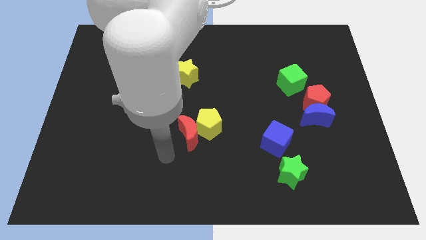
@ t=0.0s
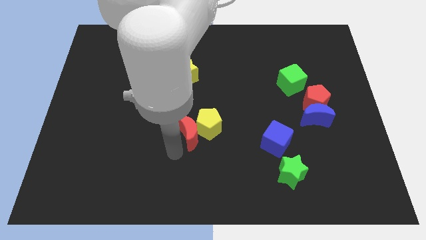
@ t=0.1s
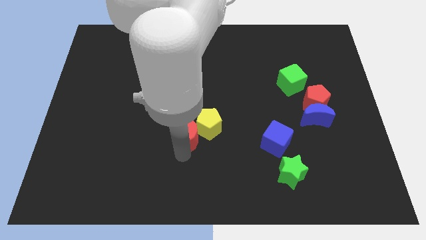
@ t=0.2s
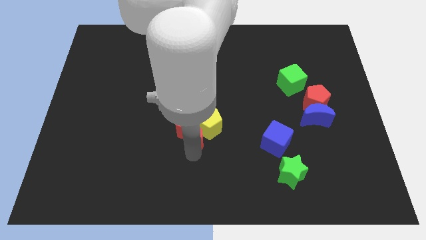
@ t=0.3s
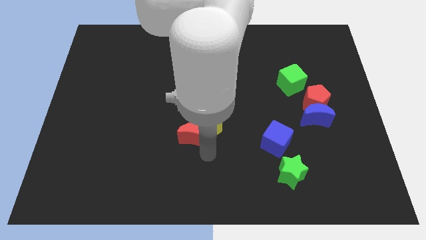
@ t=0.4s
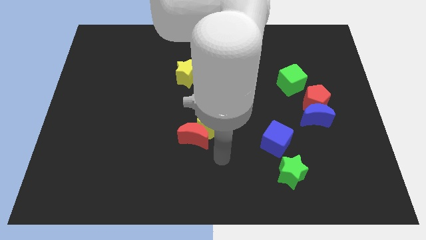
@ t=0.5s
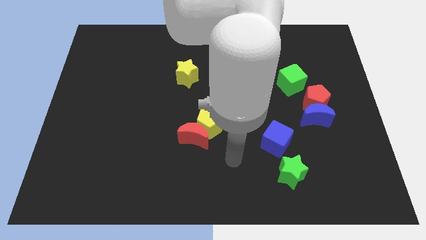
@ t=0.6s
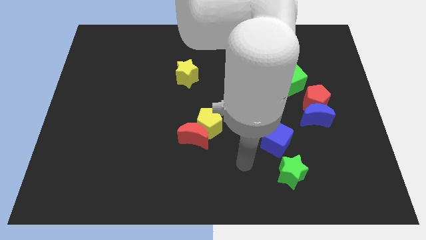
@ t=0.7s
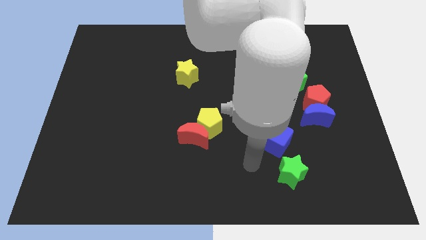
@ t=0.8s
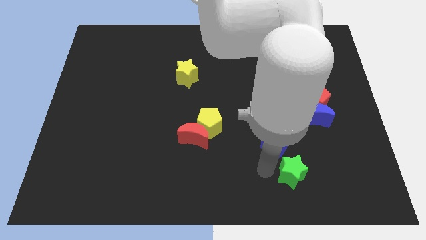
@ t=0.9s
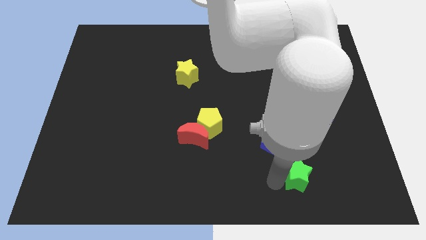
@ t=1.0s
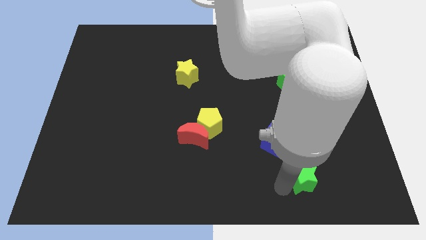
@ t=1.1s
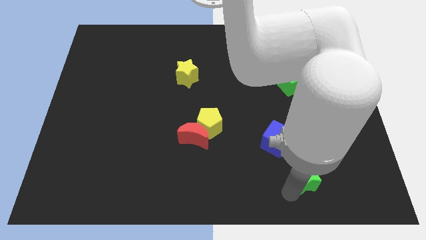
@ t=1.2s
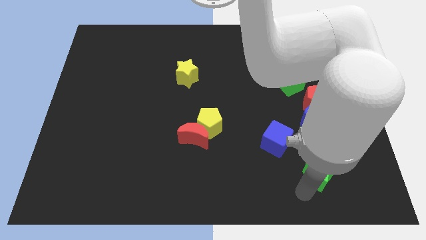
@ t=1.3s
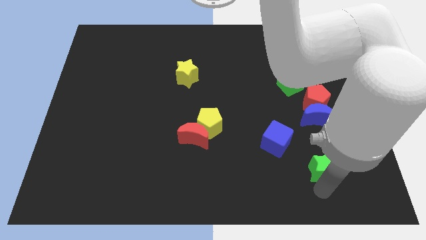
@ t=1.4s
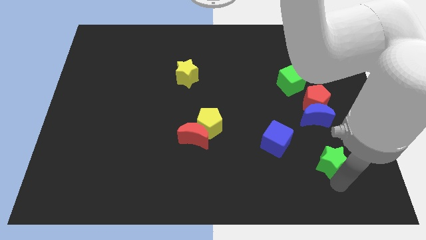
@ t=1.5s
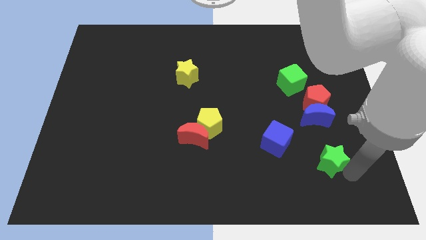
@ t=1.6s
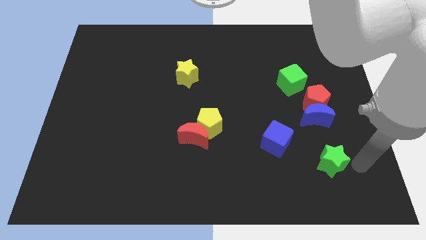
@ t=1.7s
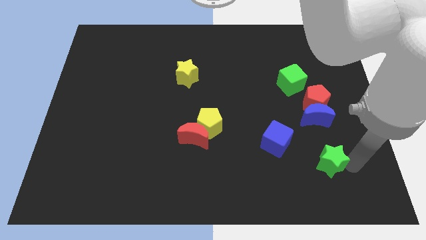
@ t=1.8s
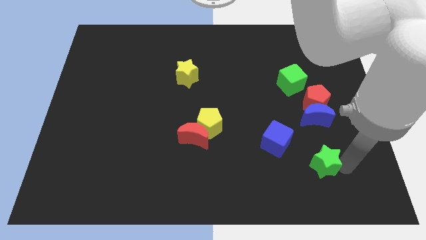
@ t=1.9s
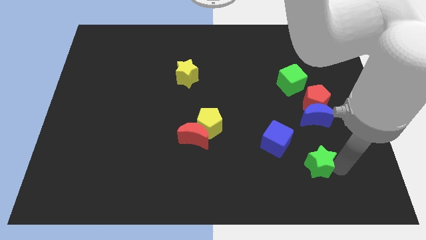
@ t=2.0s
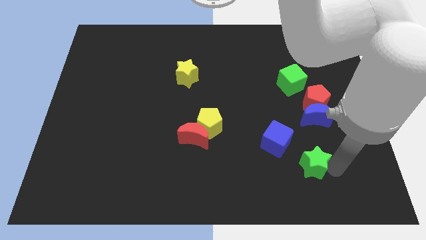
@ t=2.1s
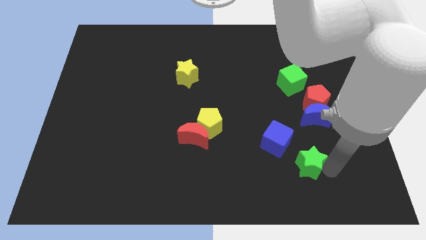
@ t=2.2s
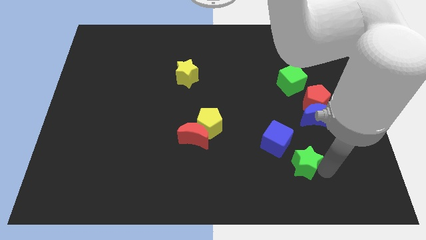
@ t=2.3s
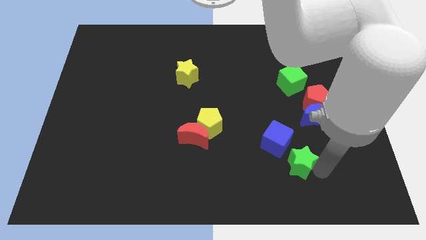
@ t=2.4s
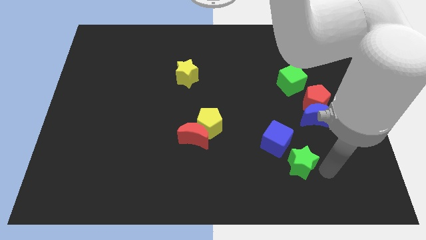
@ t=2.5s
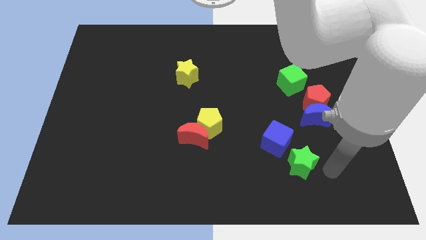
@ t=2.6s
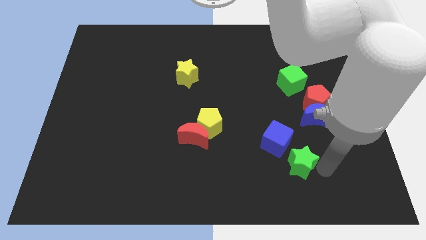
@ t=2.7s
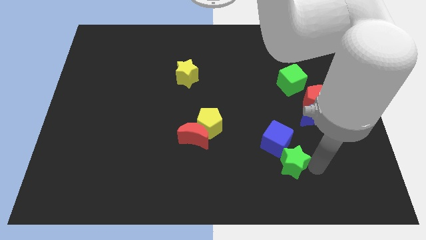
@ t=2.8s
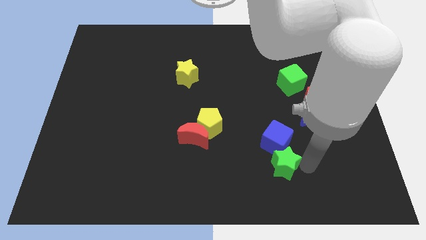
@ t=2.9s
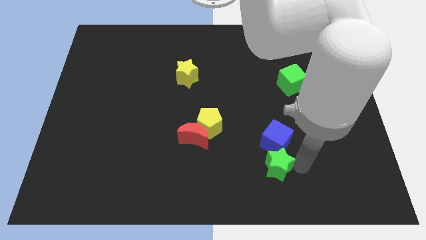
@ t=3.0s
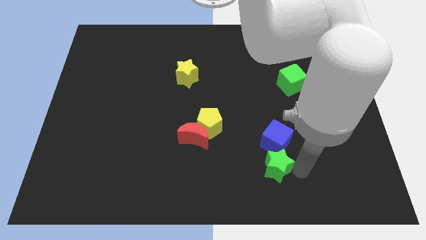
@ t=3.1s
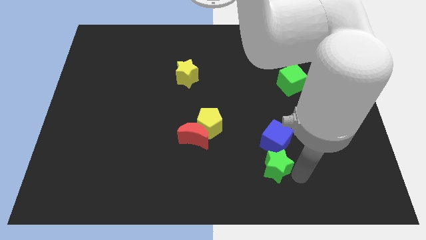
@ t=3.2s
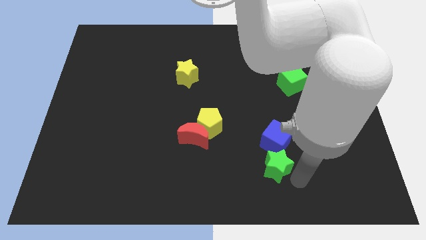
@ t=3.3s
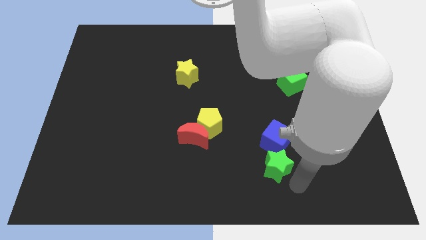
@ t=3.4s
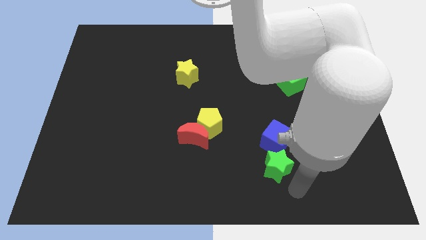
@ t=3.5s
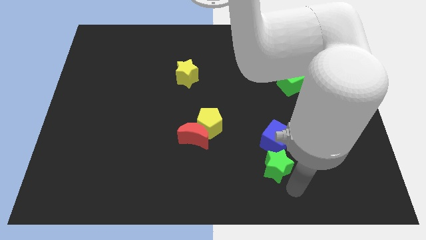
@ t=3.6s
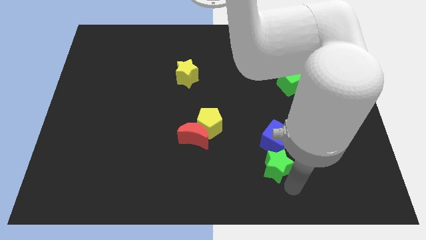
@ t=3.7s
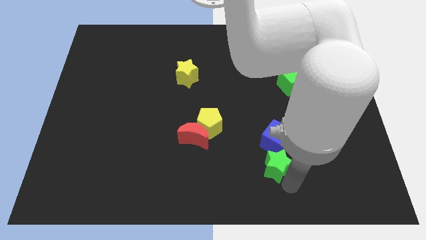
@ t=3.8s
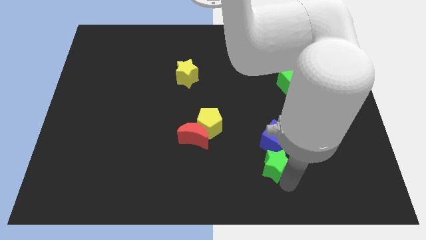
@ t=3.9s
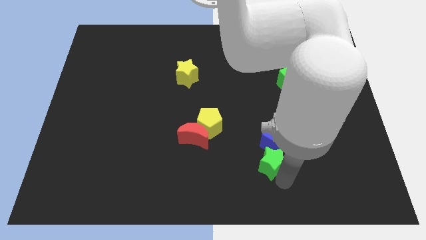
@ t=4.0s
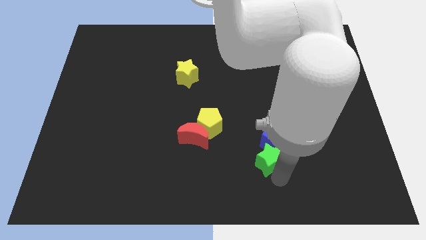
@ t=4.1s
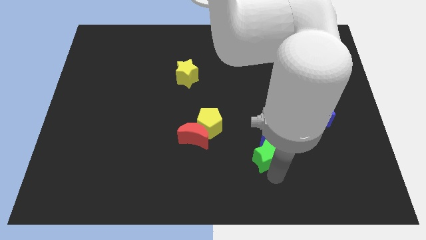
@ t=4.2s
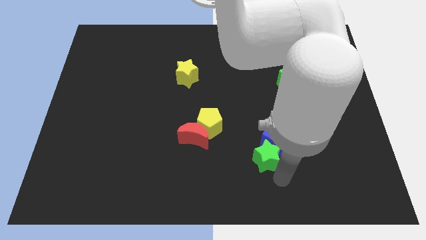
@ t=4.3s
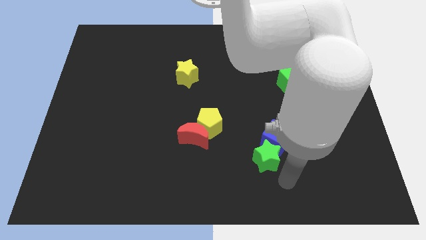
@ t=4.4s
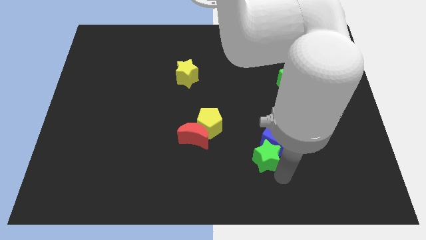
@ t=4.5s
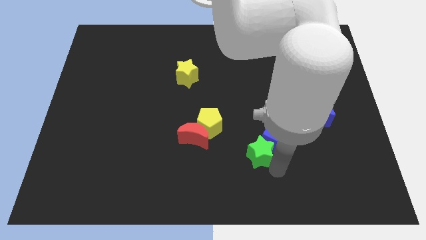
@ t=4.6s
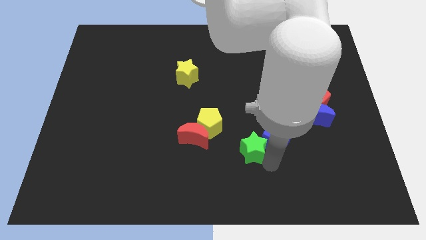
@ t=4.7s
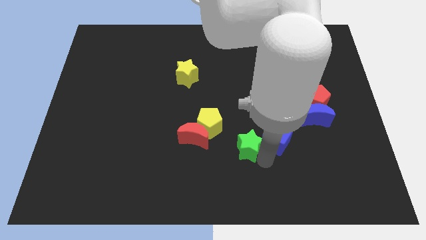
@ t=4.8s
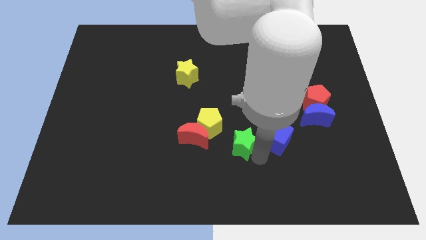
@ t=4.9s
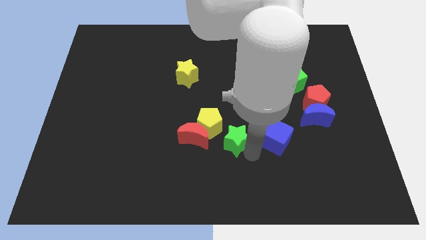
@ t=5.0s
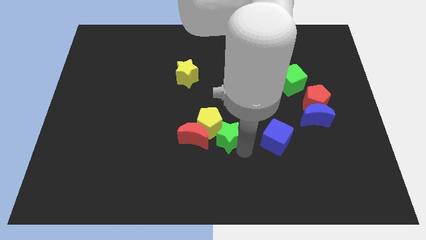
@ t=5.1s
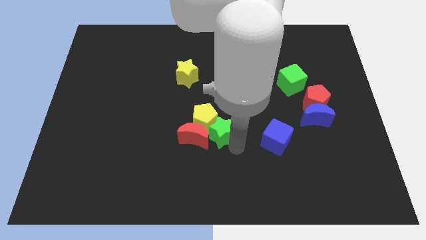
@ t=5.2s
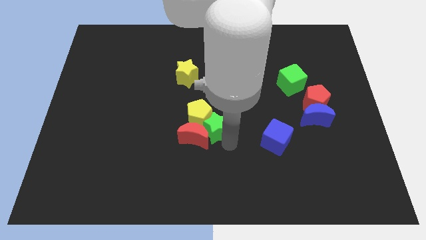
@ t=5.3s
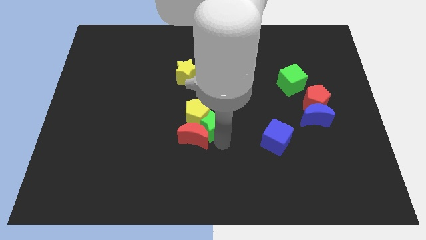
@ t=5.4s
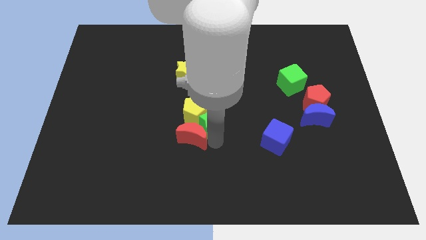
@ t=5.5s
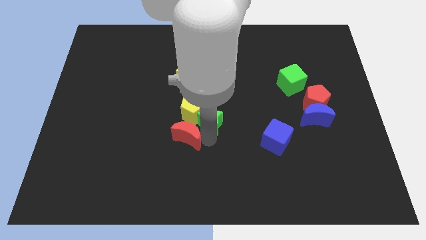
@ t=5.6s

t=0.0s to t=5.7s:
slide the green star upwards and left

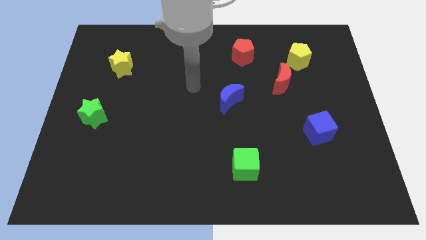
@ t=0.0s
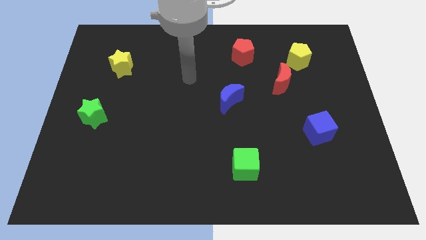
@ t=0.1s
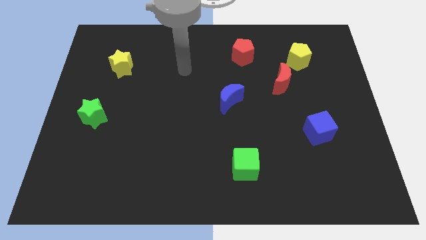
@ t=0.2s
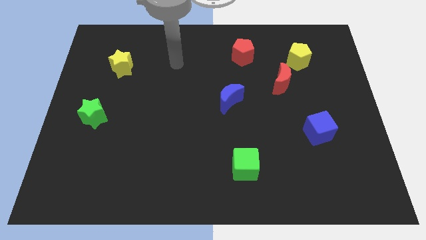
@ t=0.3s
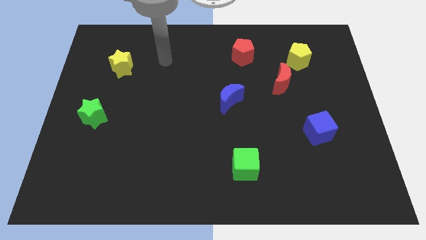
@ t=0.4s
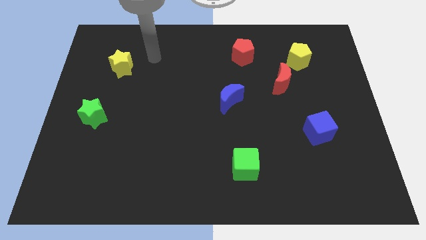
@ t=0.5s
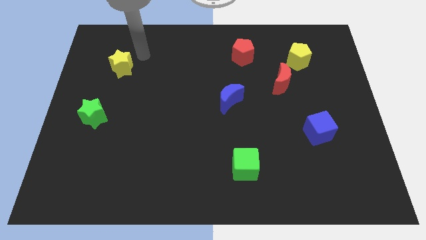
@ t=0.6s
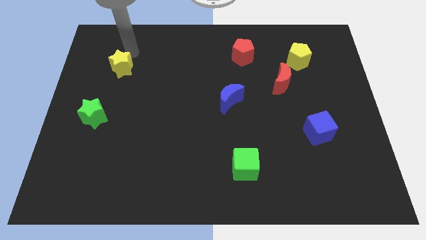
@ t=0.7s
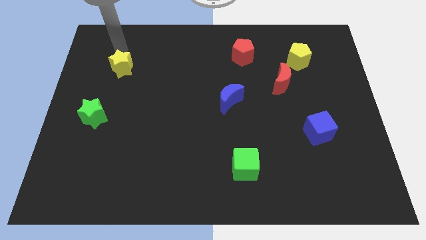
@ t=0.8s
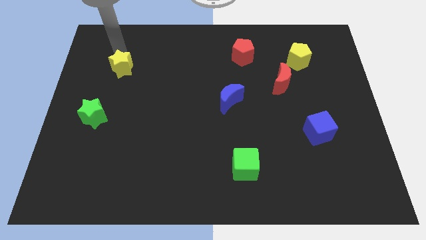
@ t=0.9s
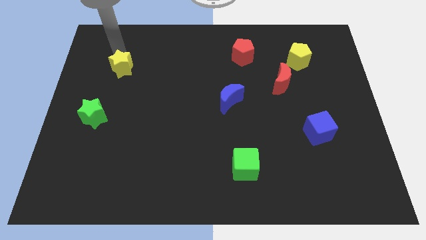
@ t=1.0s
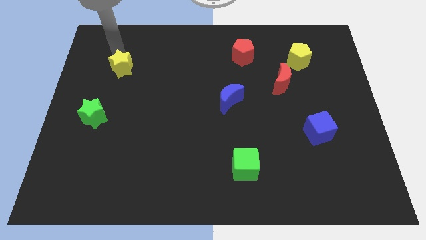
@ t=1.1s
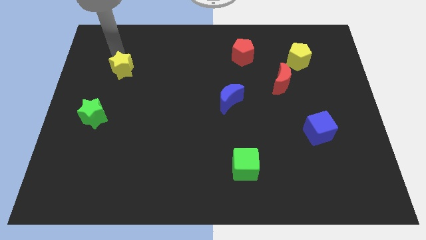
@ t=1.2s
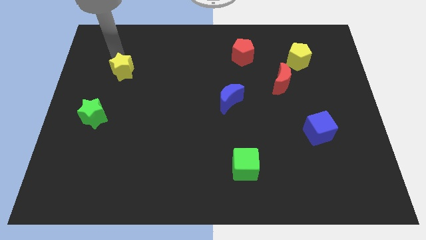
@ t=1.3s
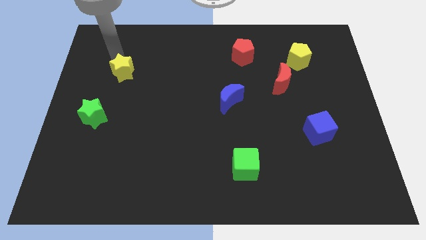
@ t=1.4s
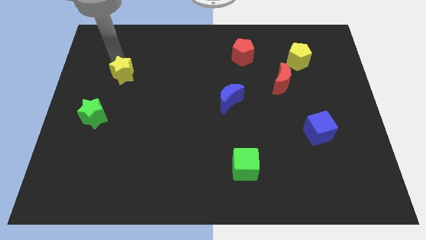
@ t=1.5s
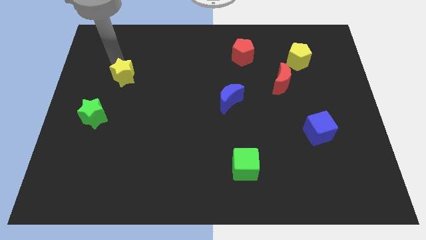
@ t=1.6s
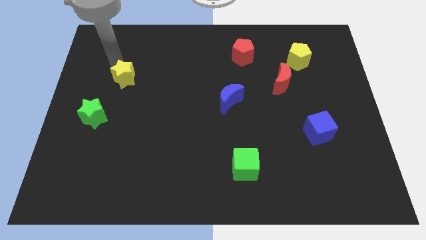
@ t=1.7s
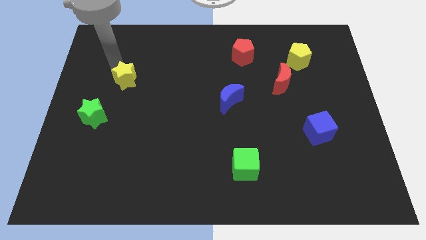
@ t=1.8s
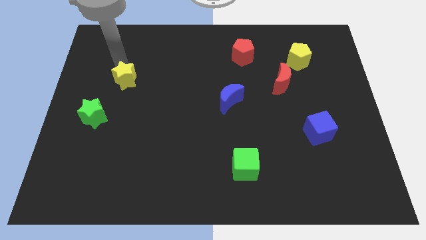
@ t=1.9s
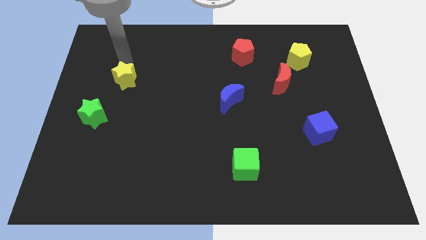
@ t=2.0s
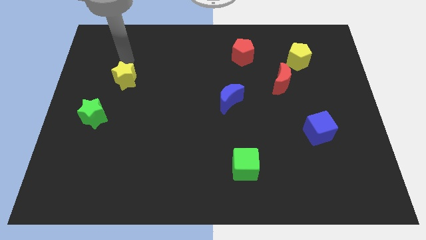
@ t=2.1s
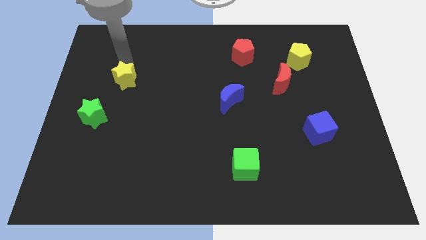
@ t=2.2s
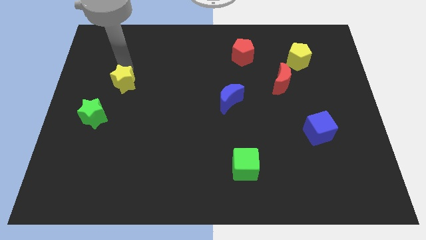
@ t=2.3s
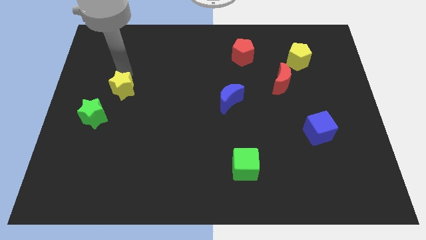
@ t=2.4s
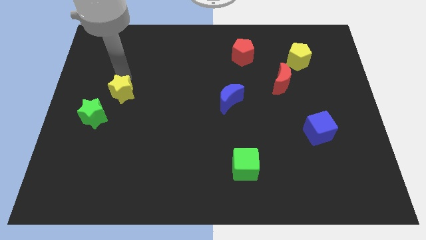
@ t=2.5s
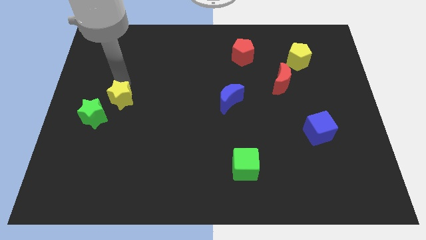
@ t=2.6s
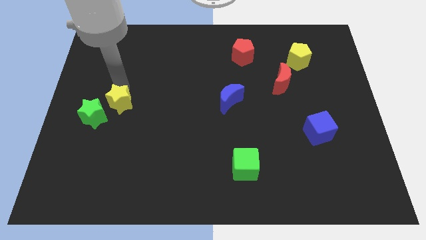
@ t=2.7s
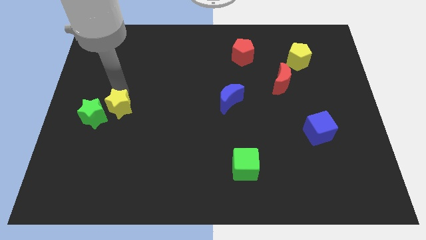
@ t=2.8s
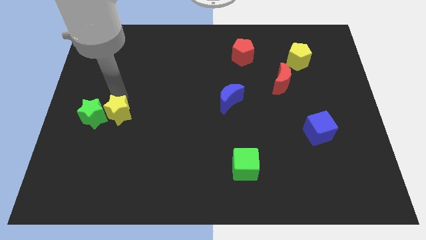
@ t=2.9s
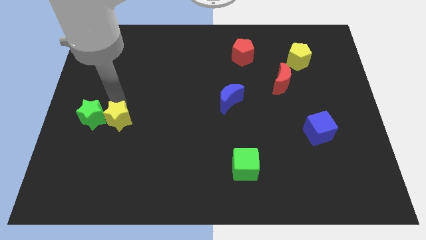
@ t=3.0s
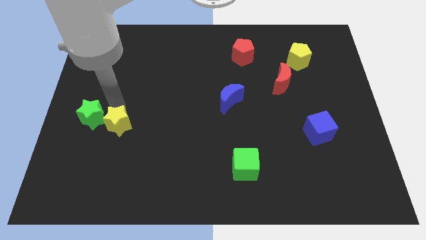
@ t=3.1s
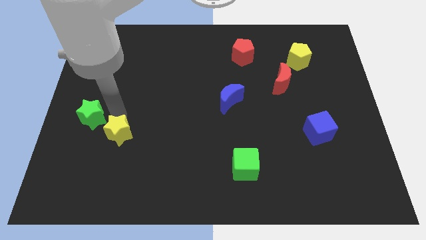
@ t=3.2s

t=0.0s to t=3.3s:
slide the yellow star down
